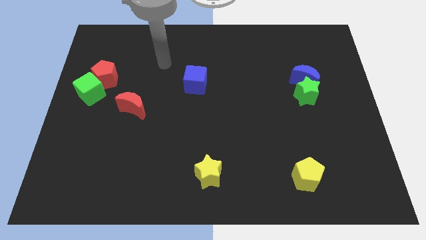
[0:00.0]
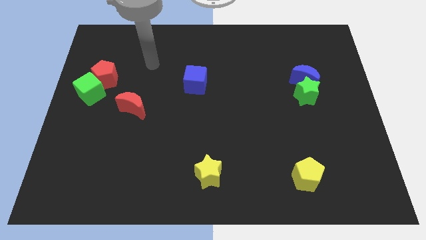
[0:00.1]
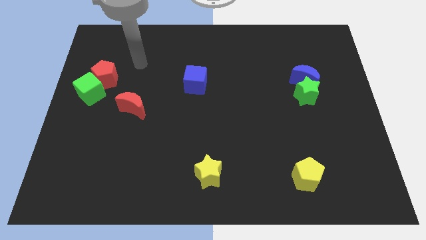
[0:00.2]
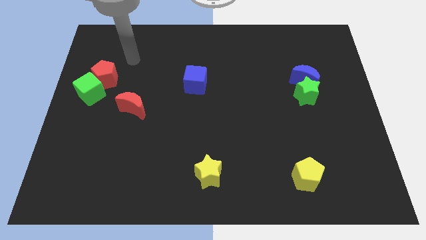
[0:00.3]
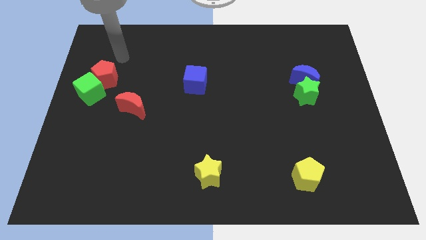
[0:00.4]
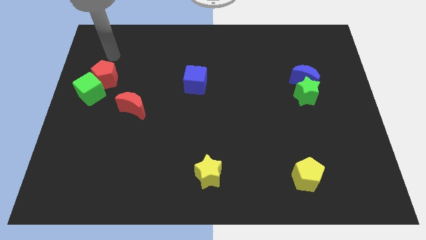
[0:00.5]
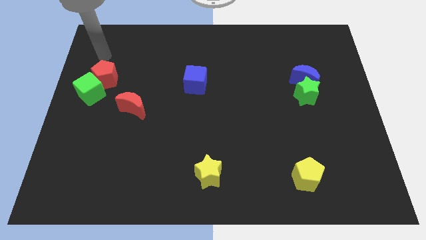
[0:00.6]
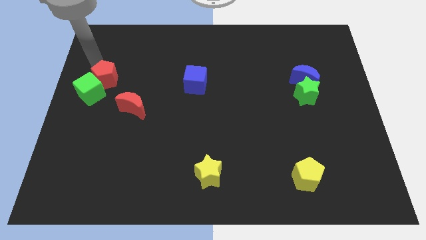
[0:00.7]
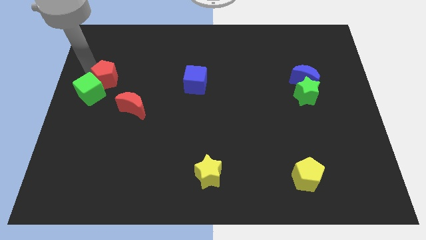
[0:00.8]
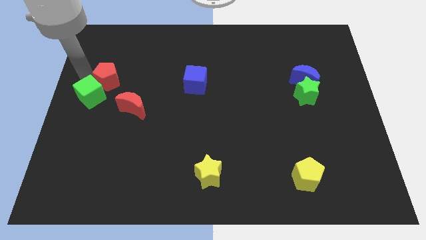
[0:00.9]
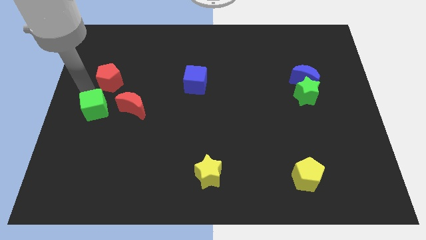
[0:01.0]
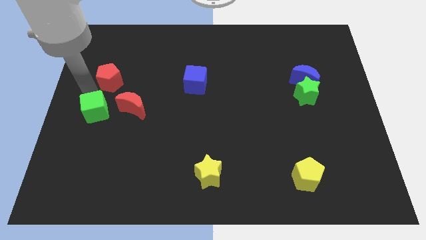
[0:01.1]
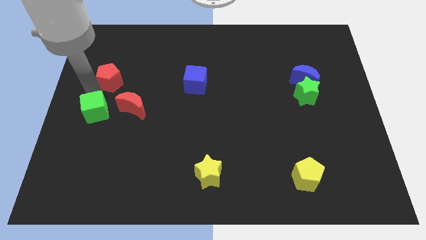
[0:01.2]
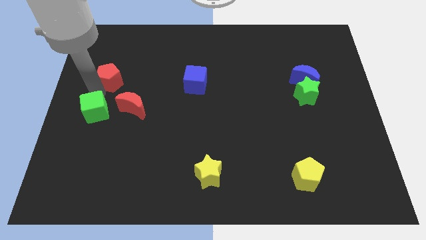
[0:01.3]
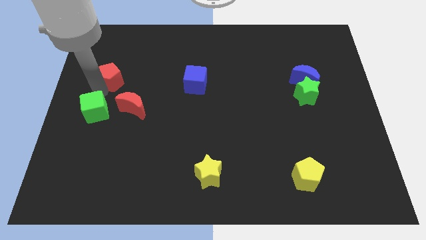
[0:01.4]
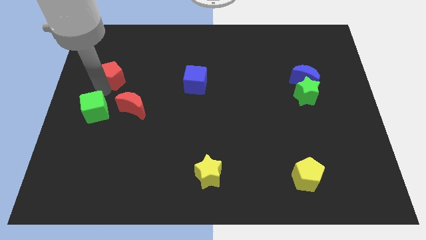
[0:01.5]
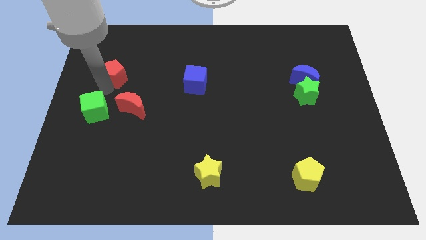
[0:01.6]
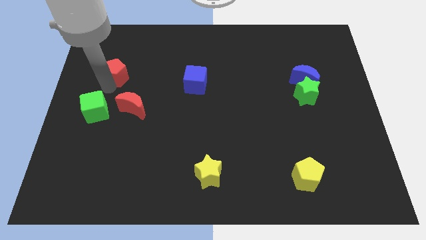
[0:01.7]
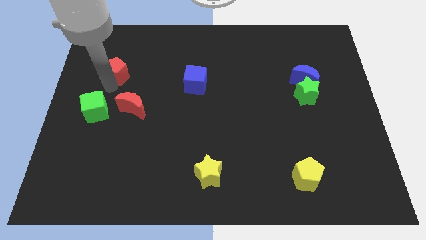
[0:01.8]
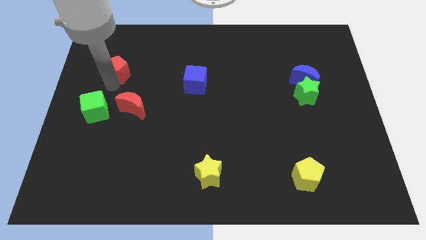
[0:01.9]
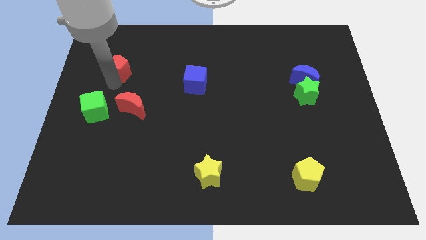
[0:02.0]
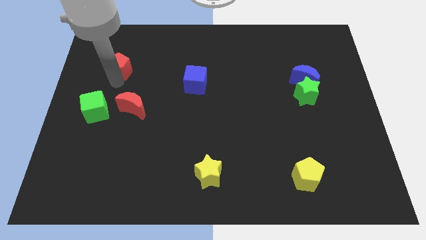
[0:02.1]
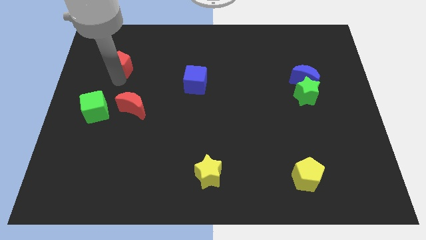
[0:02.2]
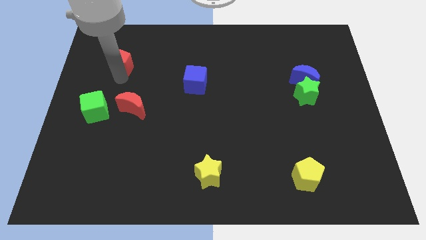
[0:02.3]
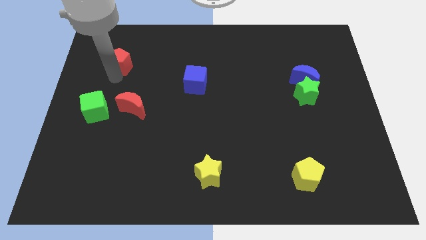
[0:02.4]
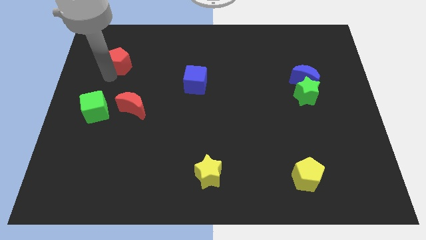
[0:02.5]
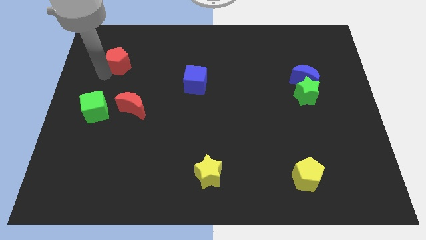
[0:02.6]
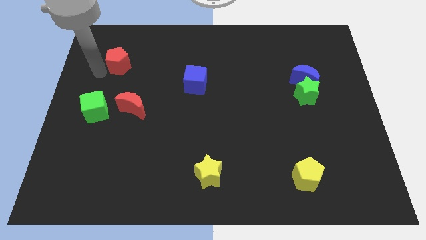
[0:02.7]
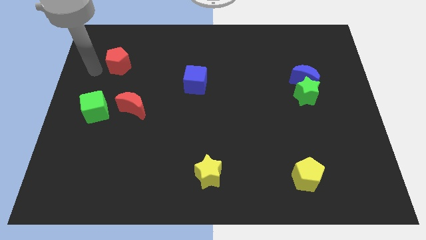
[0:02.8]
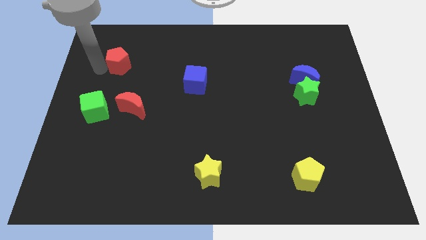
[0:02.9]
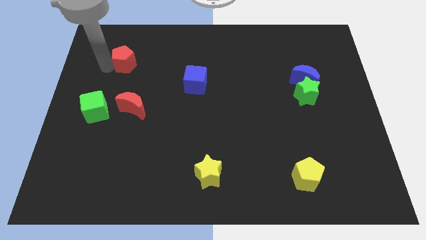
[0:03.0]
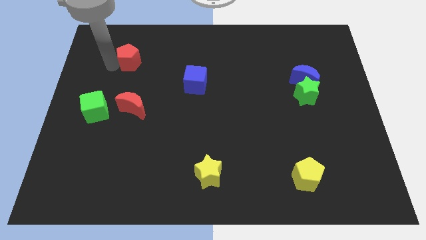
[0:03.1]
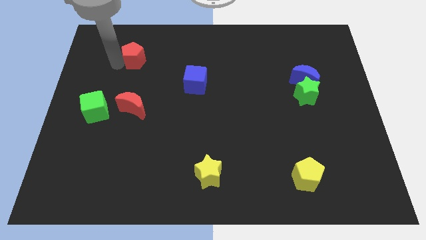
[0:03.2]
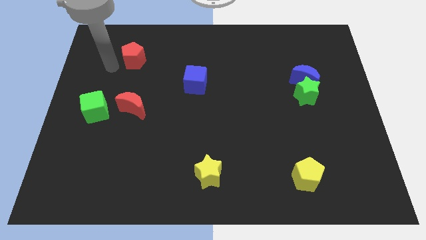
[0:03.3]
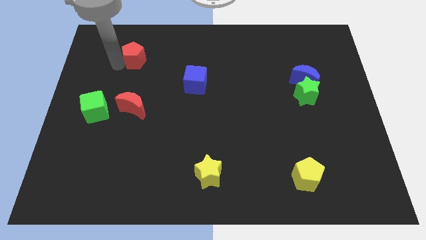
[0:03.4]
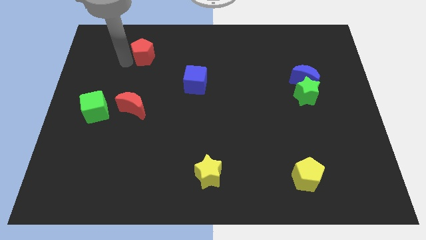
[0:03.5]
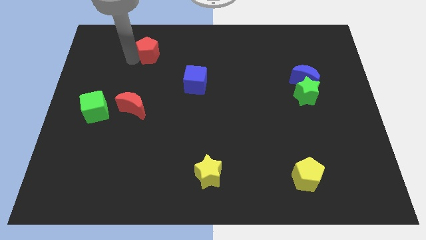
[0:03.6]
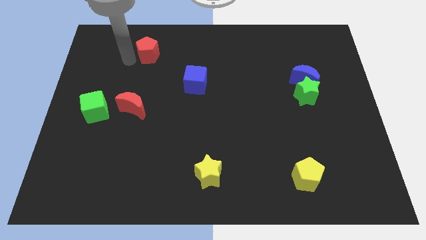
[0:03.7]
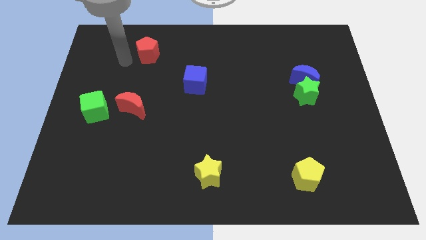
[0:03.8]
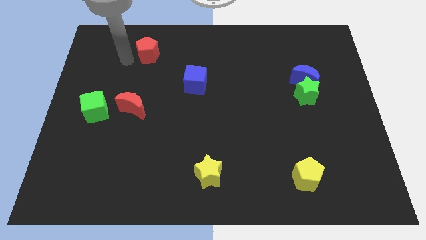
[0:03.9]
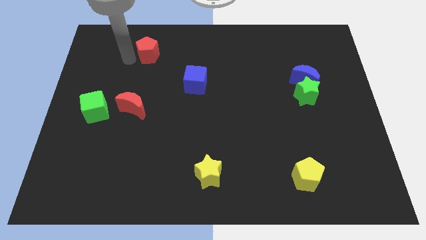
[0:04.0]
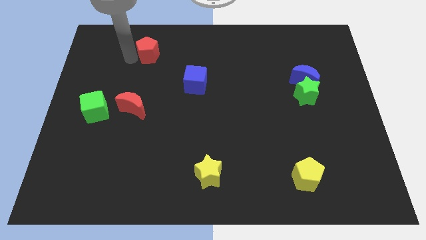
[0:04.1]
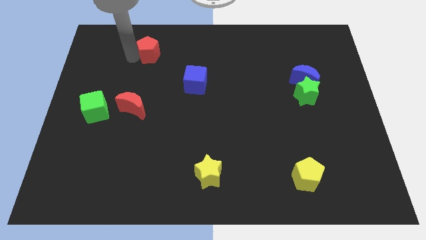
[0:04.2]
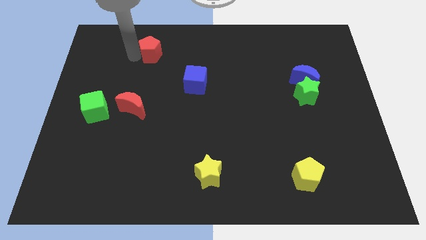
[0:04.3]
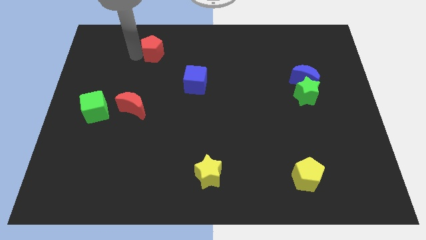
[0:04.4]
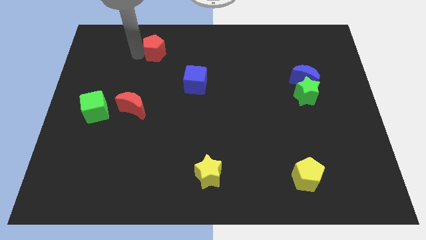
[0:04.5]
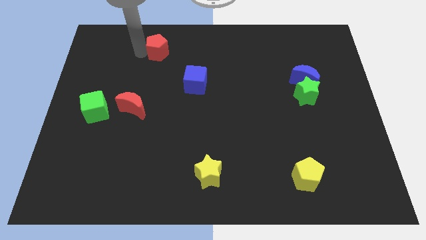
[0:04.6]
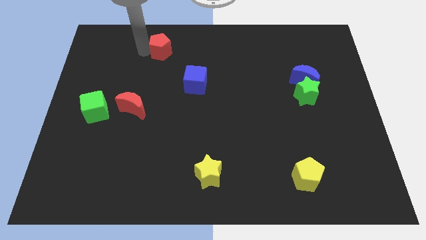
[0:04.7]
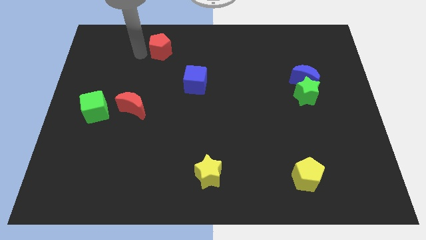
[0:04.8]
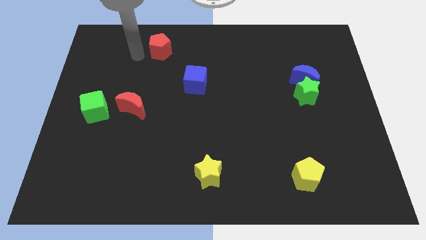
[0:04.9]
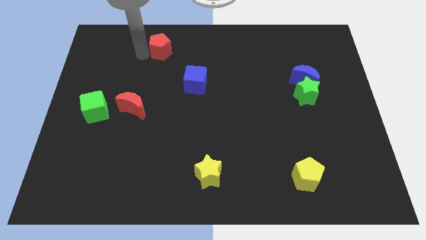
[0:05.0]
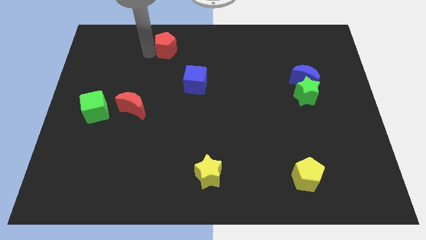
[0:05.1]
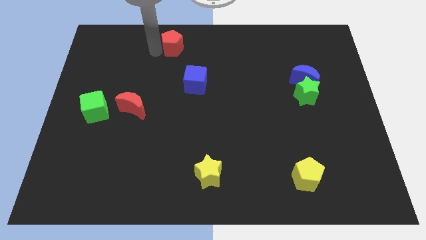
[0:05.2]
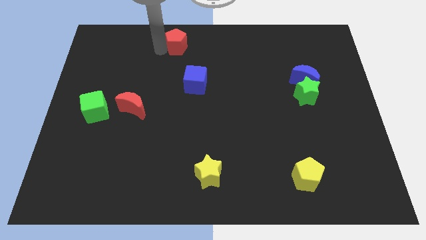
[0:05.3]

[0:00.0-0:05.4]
slide the red pentagon to the towards your base

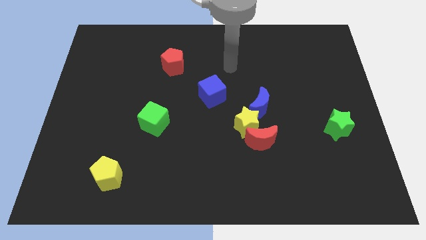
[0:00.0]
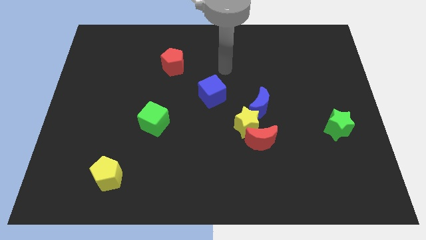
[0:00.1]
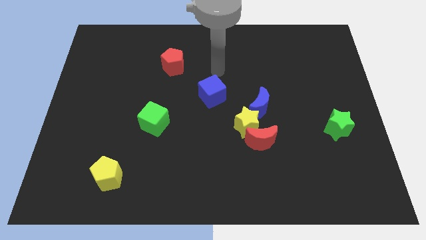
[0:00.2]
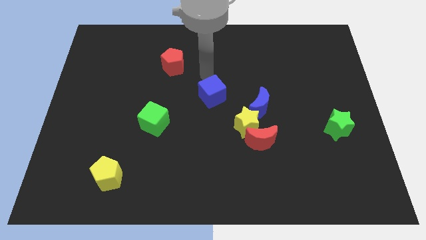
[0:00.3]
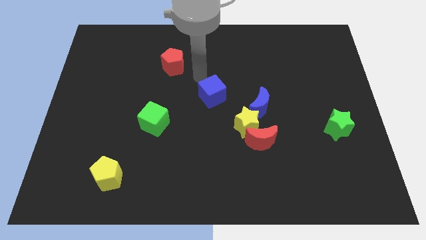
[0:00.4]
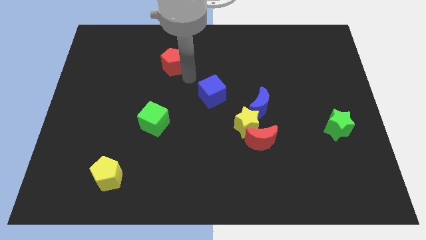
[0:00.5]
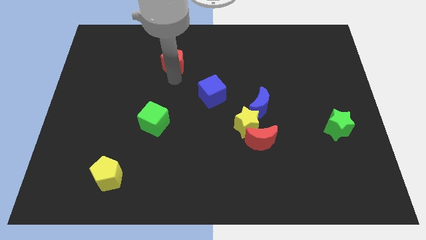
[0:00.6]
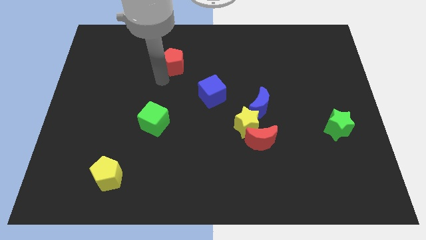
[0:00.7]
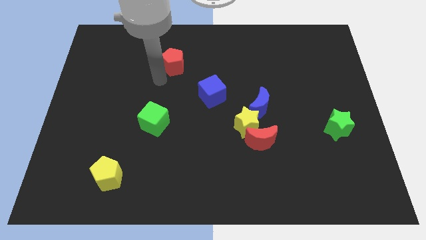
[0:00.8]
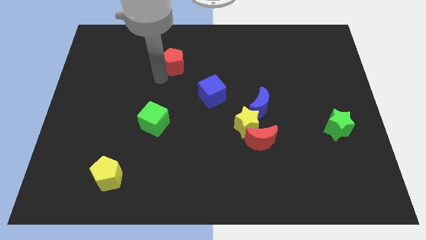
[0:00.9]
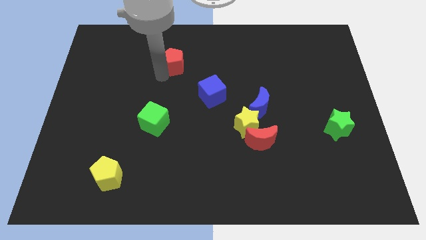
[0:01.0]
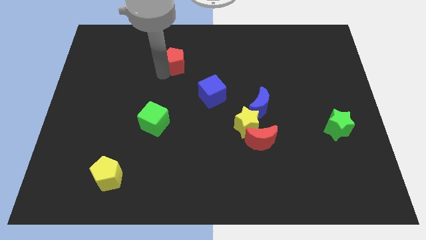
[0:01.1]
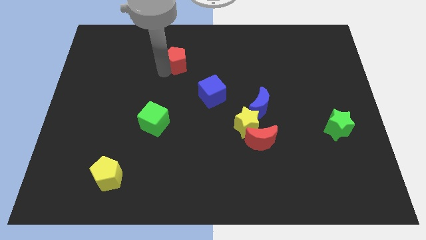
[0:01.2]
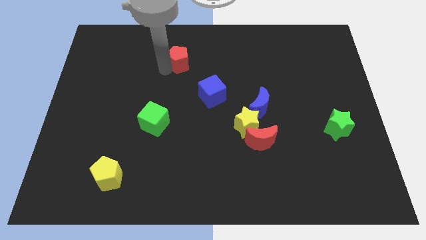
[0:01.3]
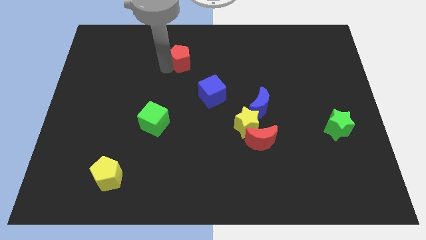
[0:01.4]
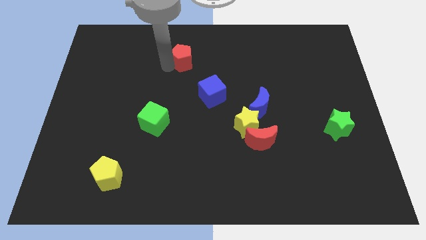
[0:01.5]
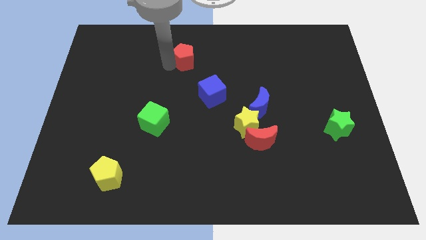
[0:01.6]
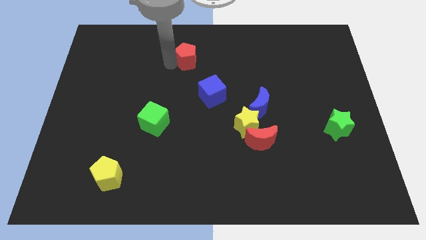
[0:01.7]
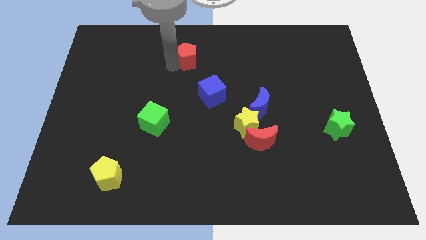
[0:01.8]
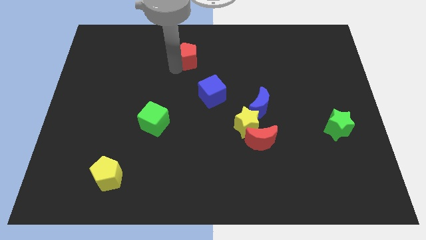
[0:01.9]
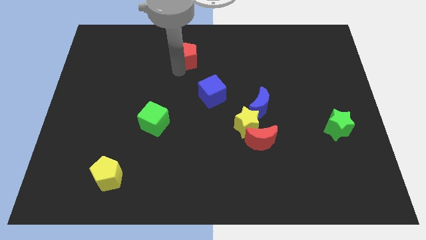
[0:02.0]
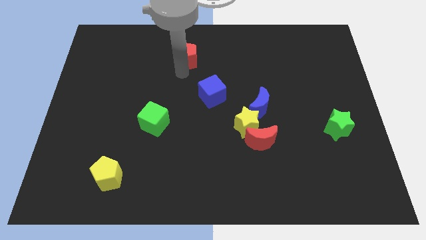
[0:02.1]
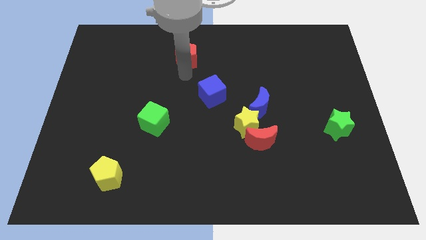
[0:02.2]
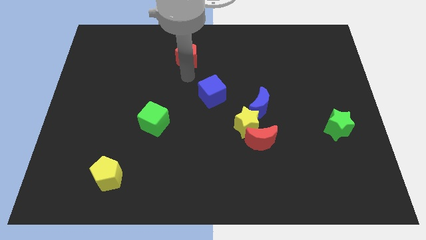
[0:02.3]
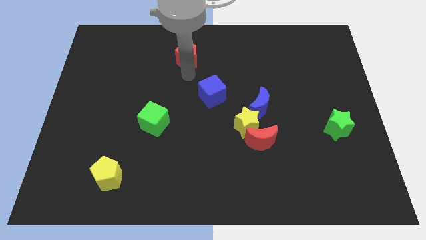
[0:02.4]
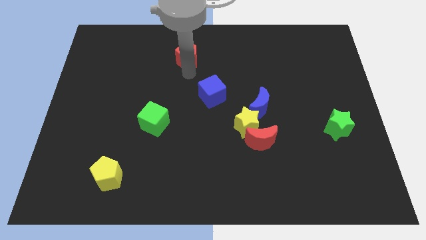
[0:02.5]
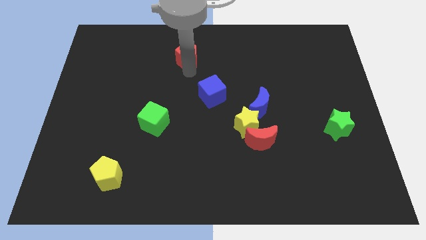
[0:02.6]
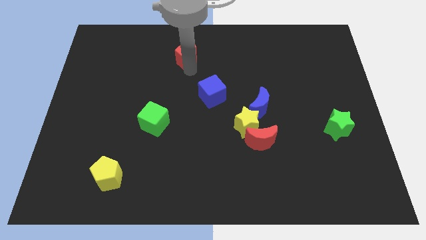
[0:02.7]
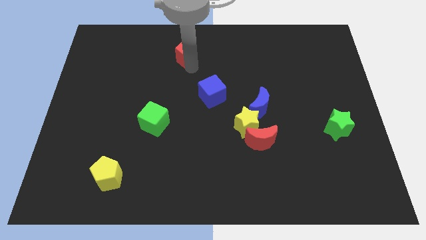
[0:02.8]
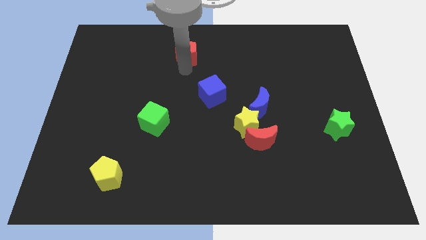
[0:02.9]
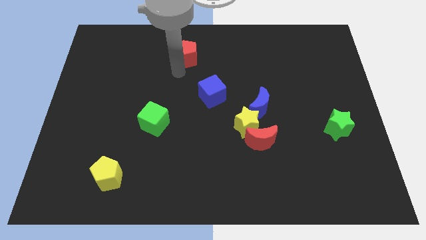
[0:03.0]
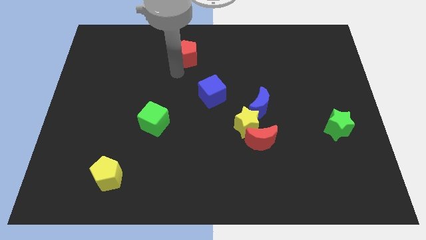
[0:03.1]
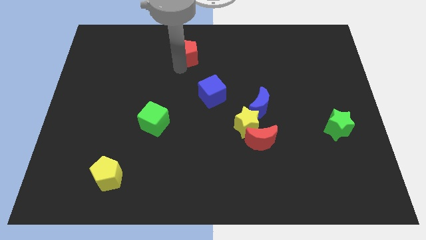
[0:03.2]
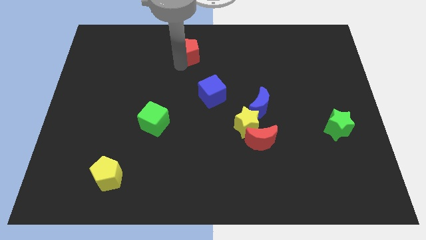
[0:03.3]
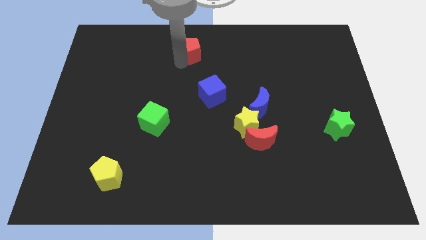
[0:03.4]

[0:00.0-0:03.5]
push the red pentagon to the top
